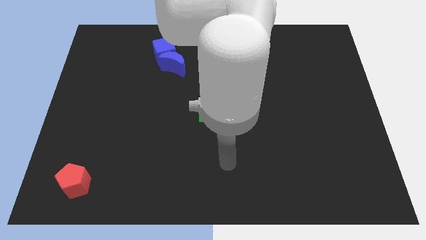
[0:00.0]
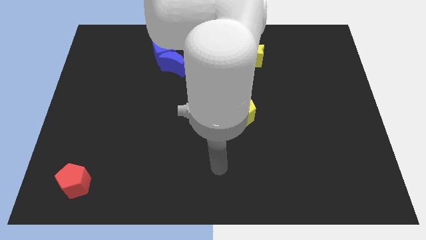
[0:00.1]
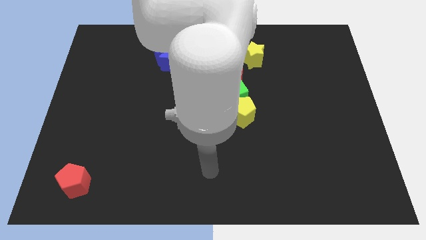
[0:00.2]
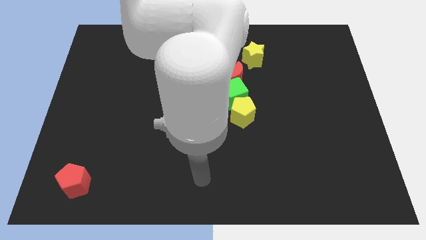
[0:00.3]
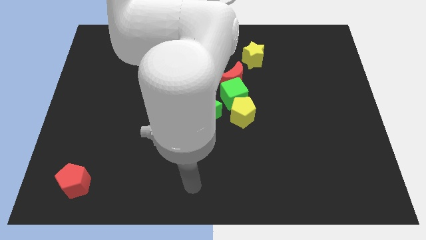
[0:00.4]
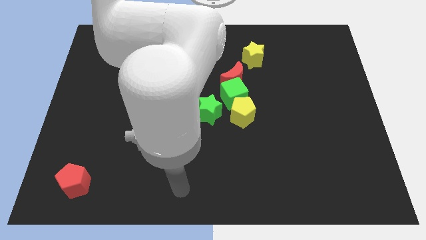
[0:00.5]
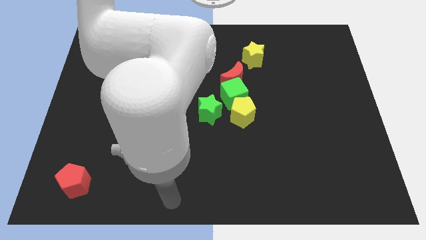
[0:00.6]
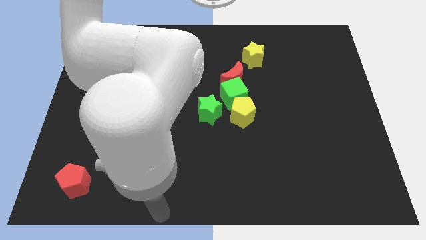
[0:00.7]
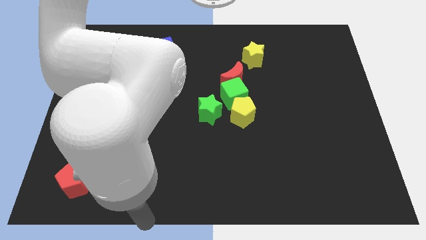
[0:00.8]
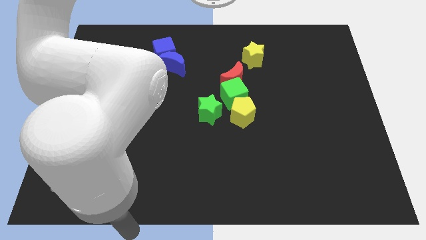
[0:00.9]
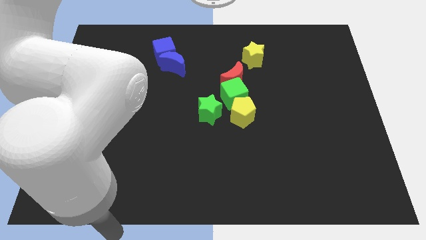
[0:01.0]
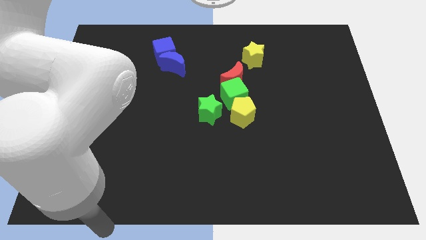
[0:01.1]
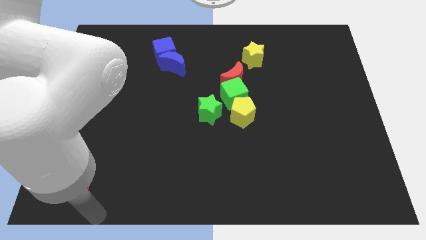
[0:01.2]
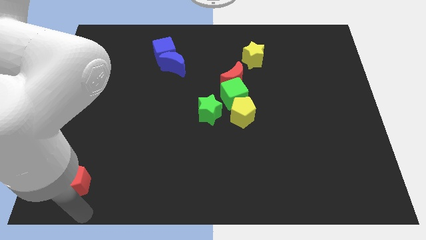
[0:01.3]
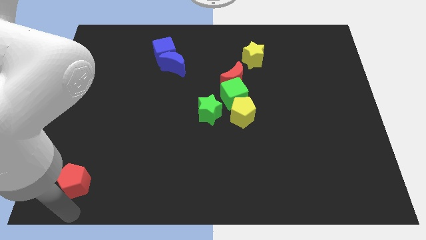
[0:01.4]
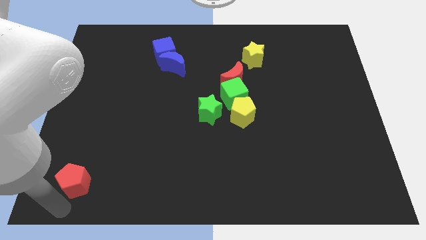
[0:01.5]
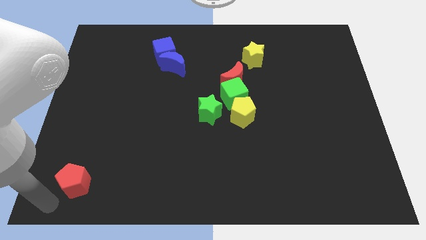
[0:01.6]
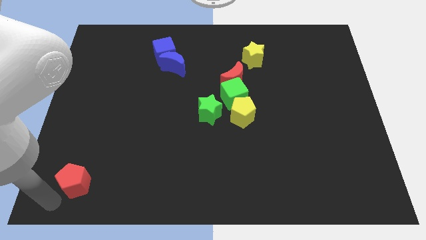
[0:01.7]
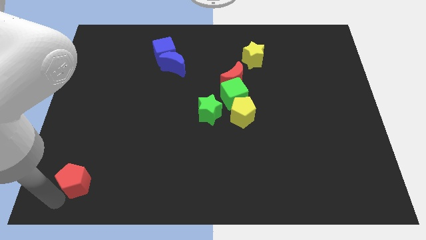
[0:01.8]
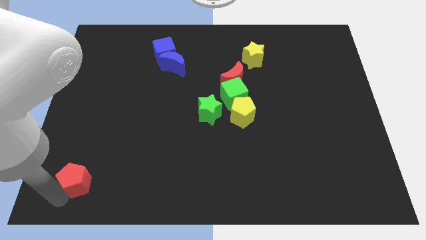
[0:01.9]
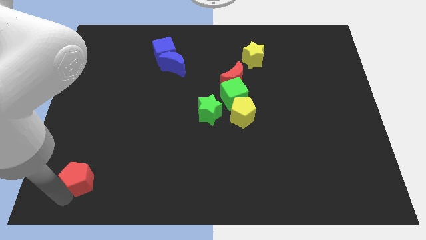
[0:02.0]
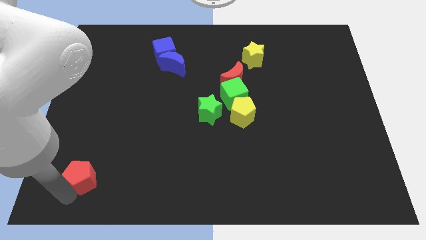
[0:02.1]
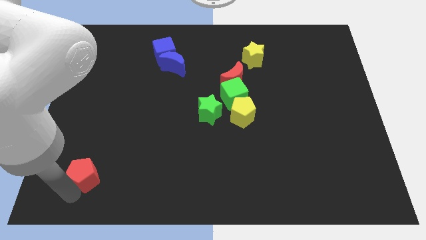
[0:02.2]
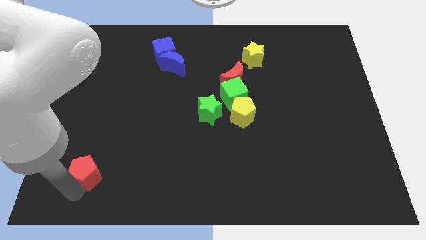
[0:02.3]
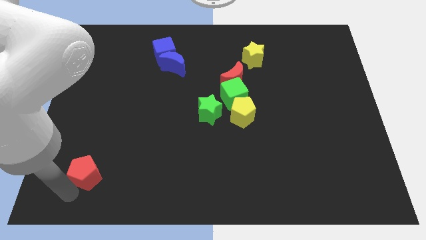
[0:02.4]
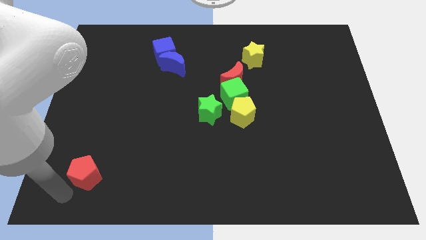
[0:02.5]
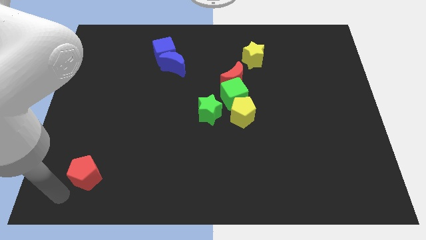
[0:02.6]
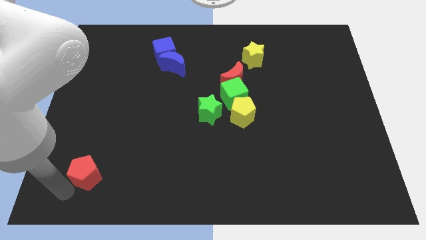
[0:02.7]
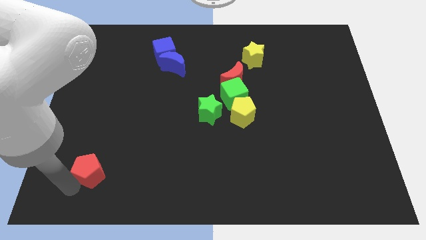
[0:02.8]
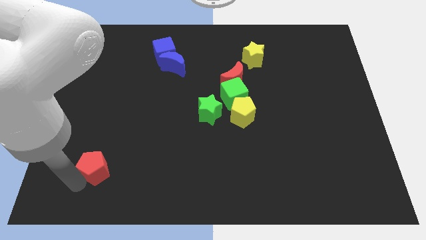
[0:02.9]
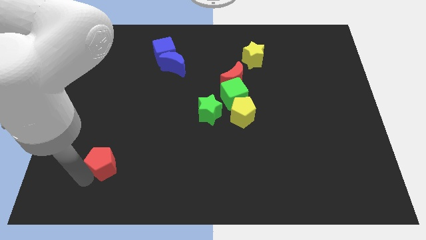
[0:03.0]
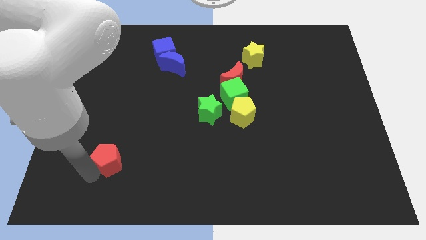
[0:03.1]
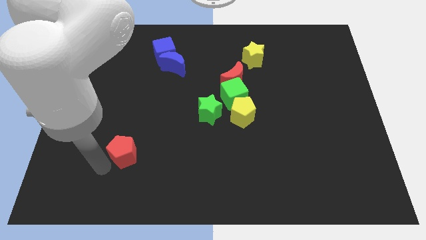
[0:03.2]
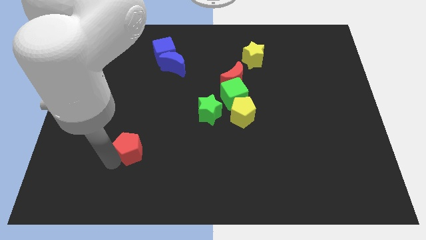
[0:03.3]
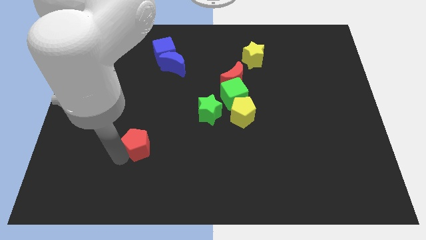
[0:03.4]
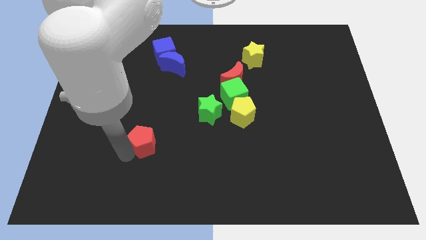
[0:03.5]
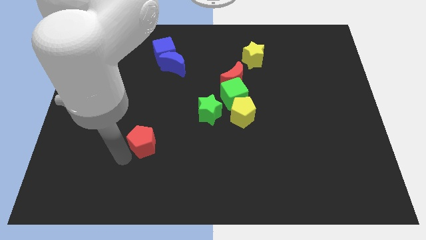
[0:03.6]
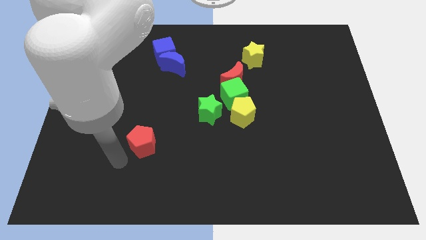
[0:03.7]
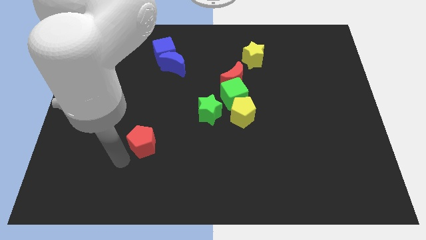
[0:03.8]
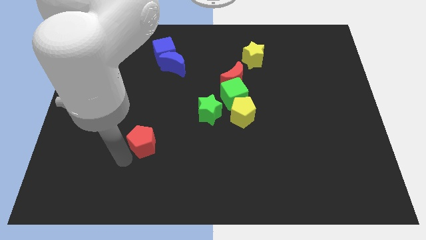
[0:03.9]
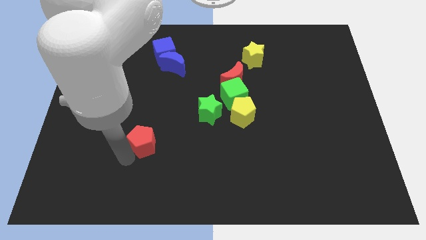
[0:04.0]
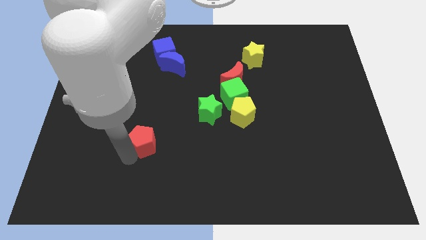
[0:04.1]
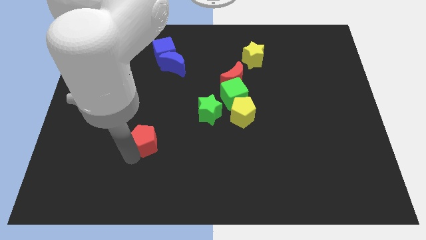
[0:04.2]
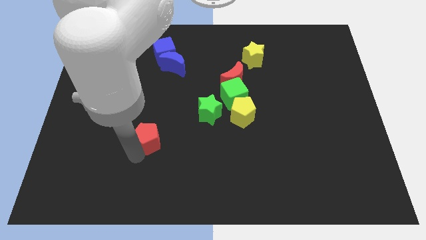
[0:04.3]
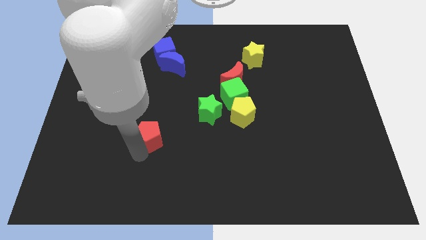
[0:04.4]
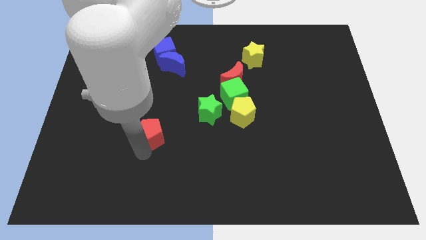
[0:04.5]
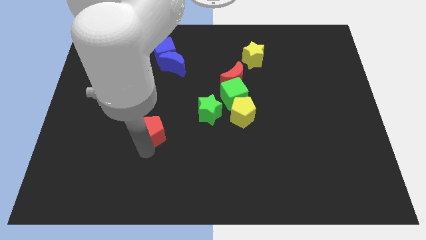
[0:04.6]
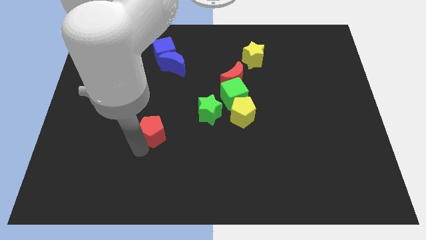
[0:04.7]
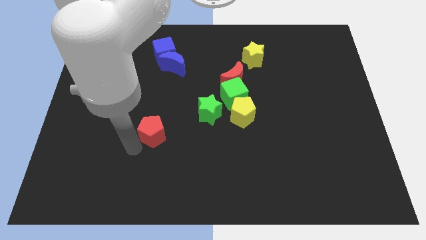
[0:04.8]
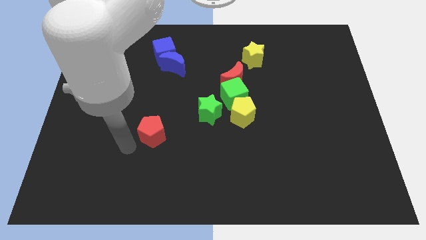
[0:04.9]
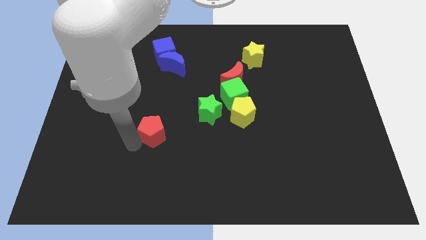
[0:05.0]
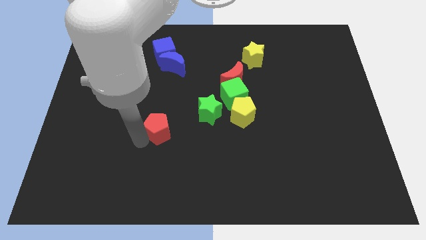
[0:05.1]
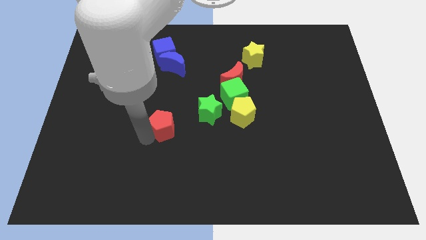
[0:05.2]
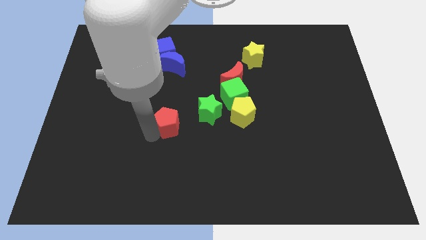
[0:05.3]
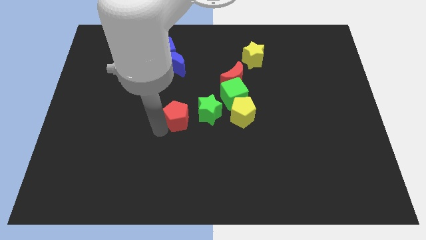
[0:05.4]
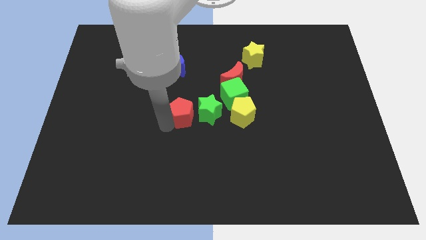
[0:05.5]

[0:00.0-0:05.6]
move the red pentagon to the green star

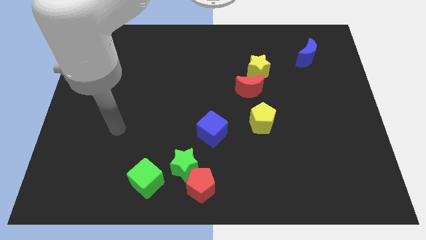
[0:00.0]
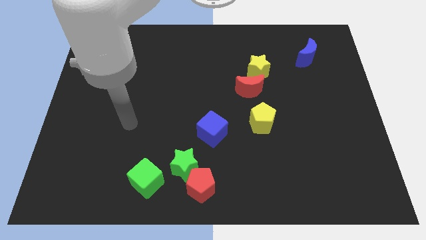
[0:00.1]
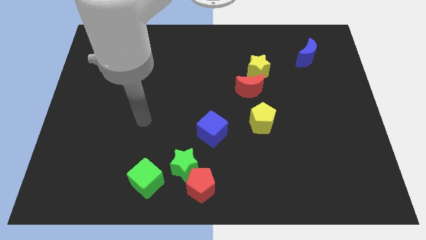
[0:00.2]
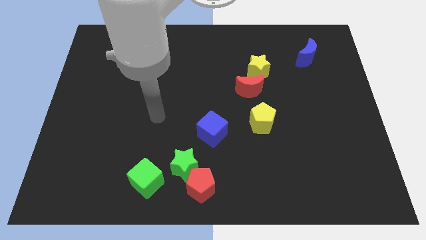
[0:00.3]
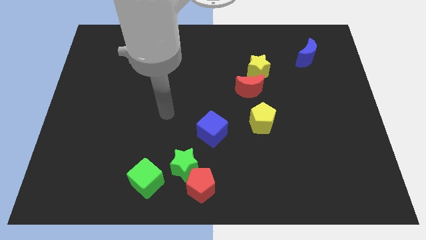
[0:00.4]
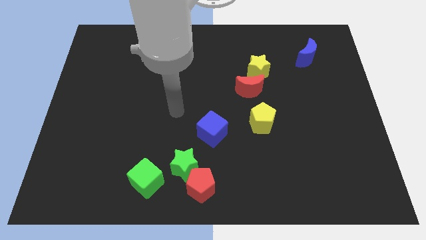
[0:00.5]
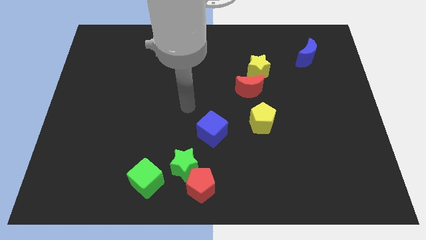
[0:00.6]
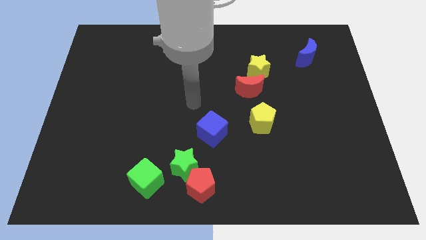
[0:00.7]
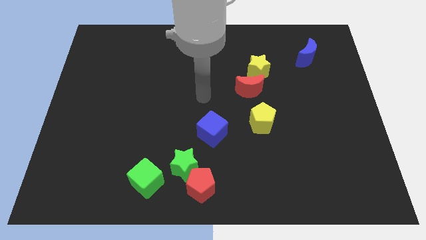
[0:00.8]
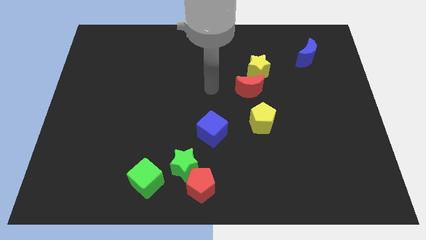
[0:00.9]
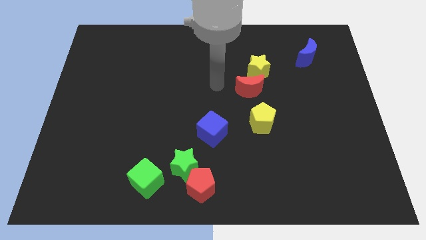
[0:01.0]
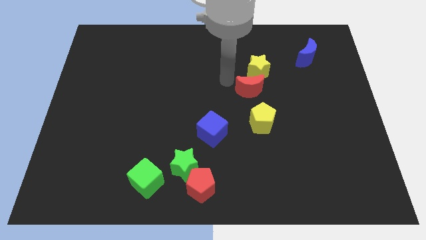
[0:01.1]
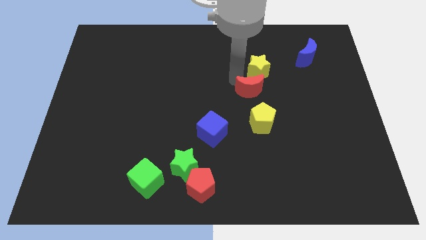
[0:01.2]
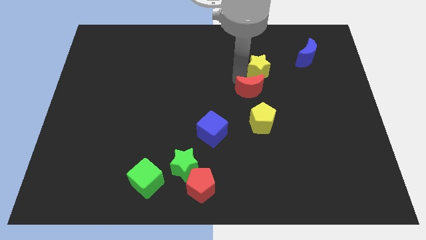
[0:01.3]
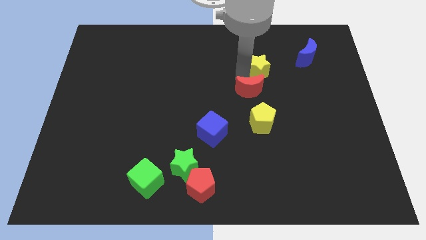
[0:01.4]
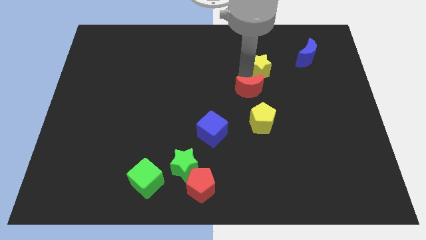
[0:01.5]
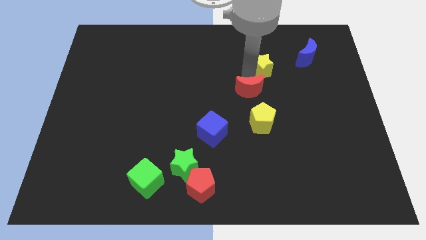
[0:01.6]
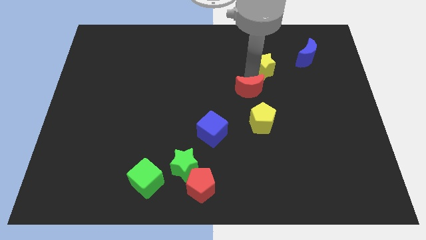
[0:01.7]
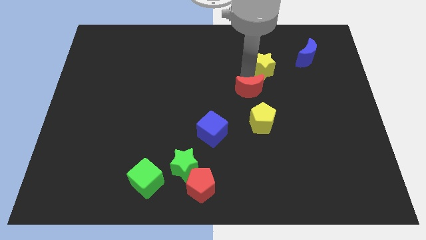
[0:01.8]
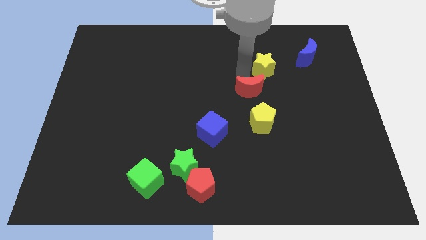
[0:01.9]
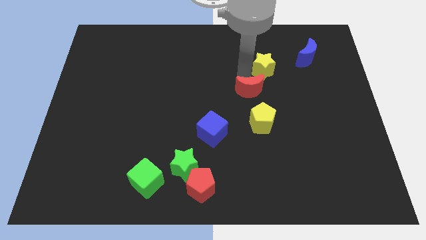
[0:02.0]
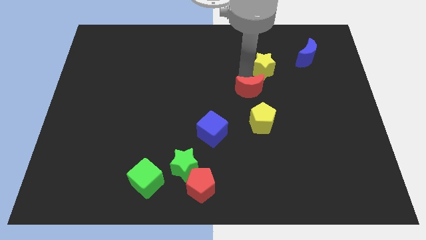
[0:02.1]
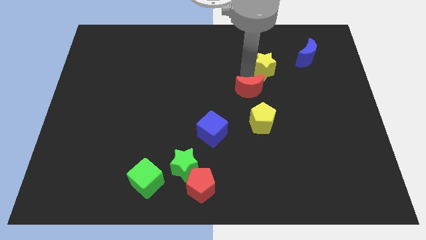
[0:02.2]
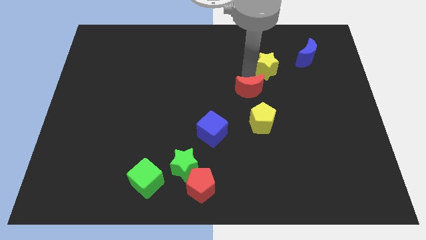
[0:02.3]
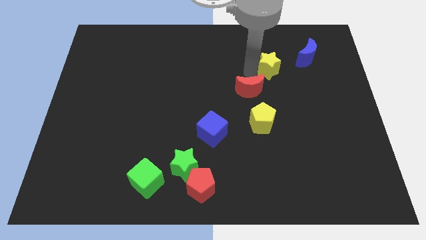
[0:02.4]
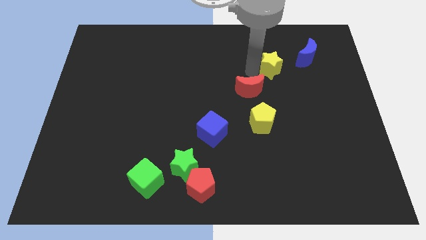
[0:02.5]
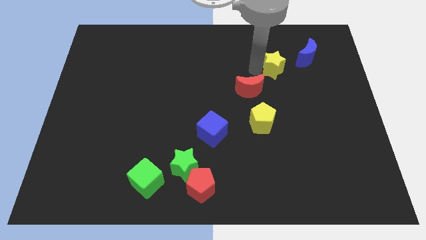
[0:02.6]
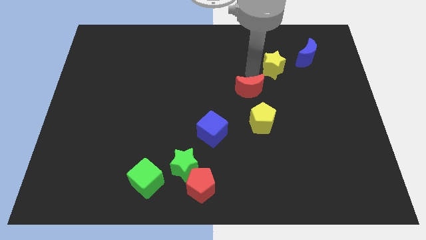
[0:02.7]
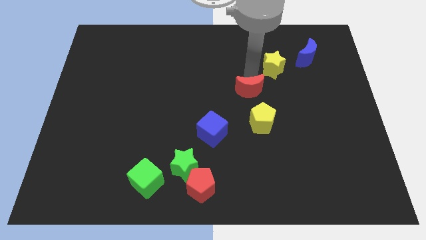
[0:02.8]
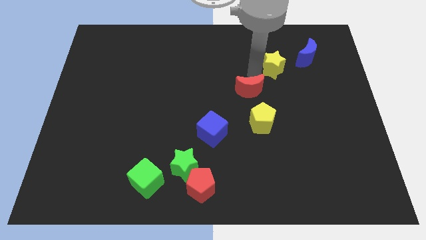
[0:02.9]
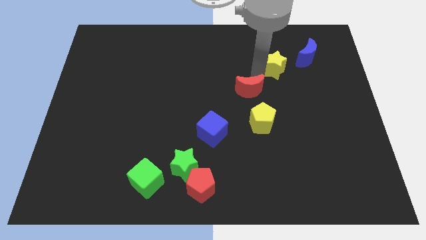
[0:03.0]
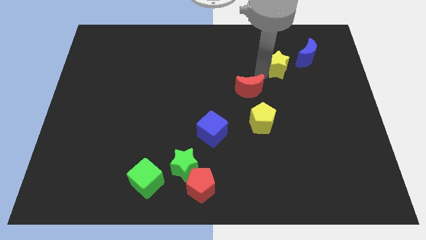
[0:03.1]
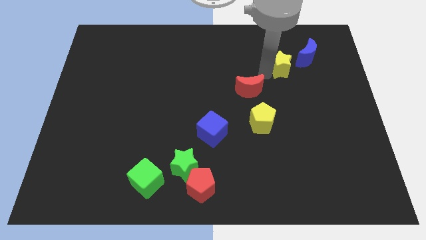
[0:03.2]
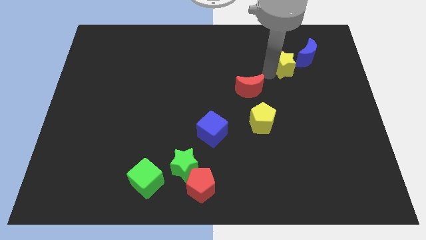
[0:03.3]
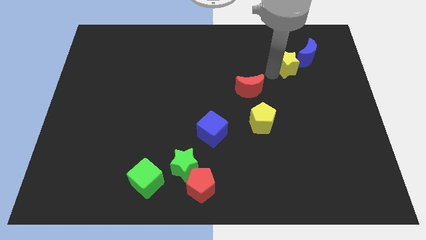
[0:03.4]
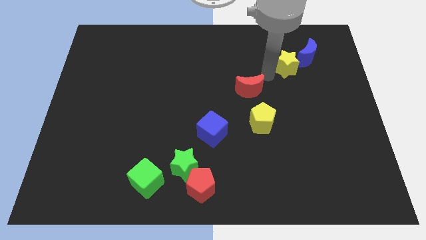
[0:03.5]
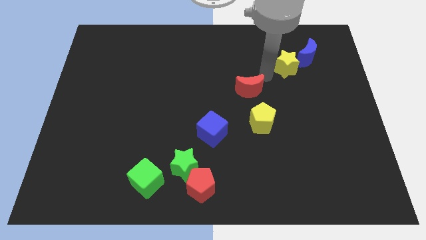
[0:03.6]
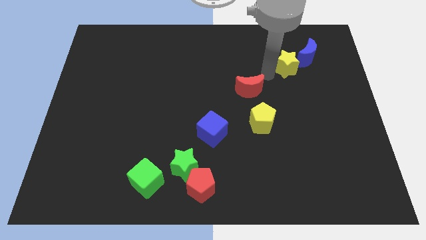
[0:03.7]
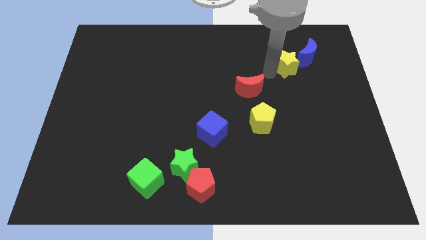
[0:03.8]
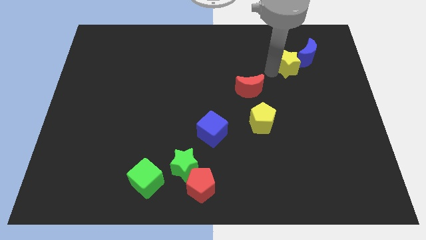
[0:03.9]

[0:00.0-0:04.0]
put the yellow star to the blue moon
